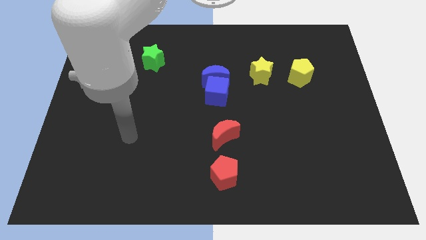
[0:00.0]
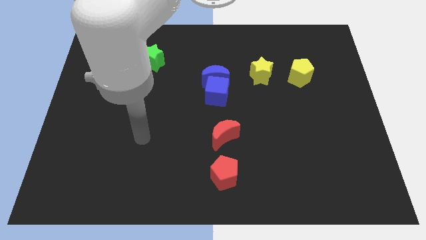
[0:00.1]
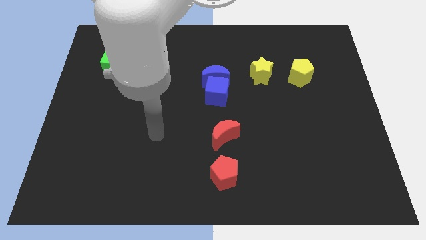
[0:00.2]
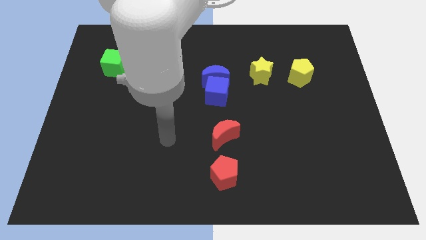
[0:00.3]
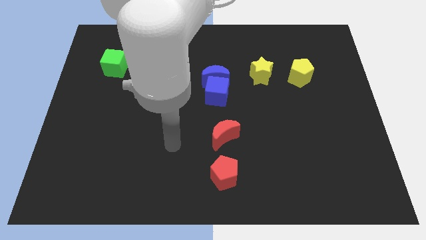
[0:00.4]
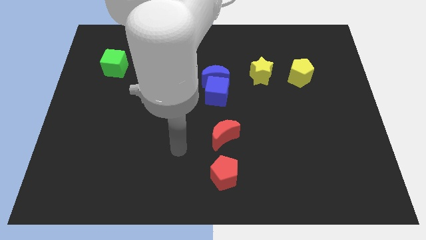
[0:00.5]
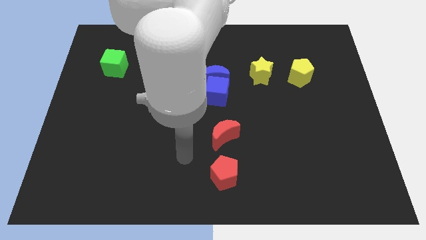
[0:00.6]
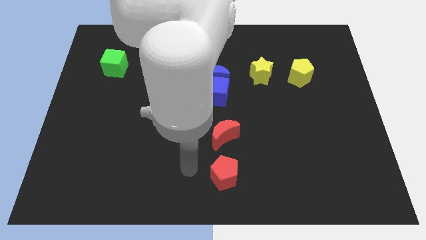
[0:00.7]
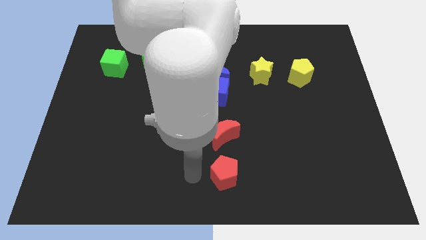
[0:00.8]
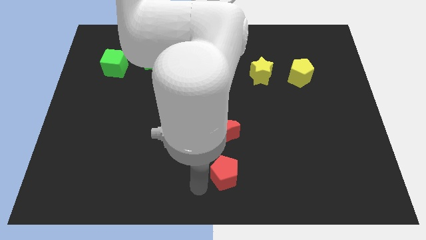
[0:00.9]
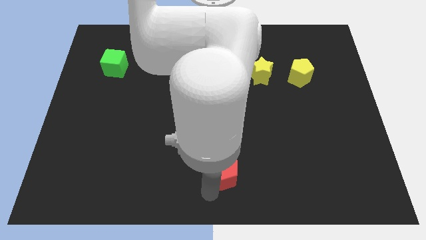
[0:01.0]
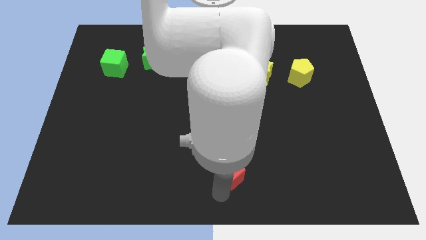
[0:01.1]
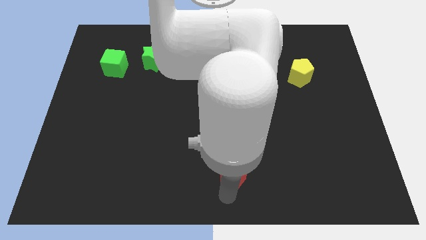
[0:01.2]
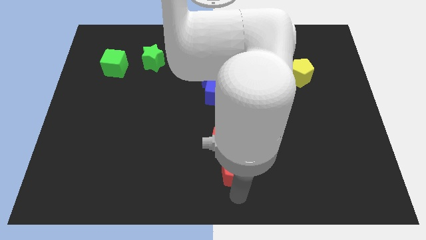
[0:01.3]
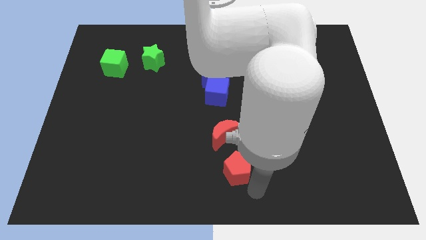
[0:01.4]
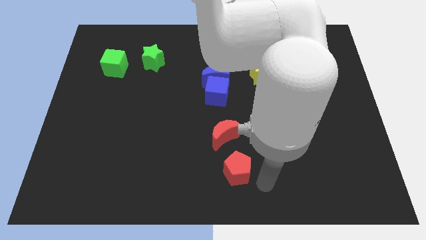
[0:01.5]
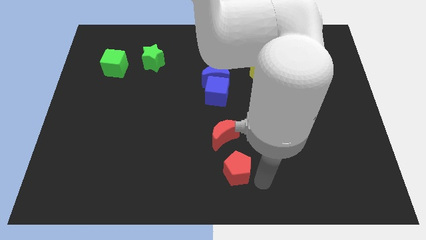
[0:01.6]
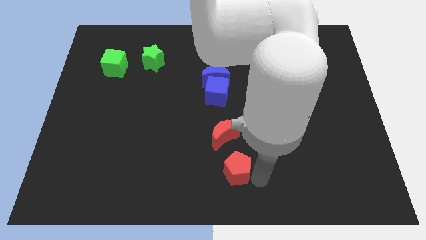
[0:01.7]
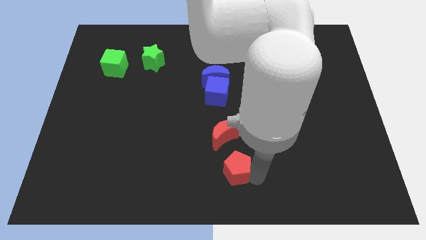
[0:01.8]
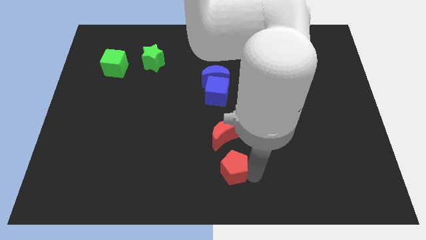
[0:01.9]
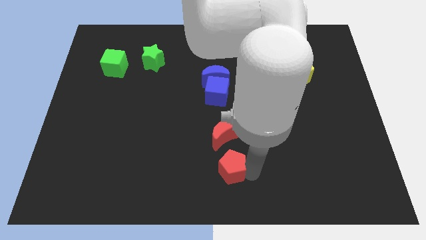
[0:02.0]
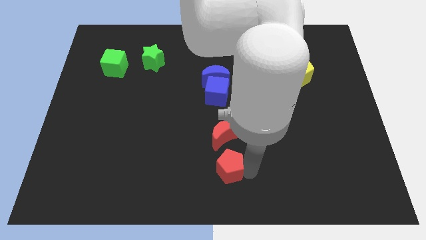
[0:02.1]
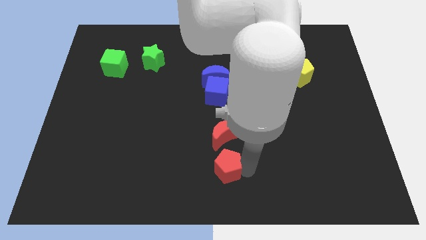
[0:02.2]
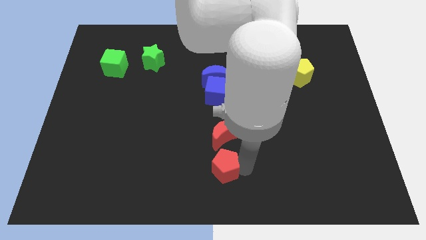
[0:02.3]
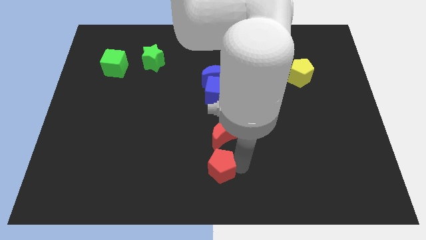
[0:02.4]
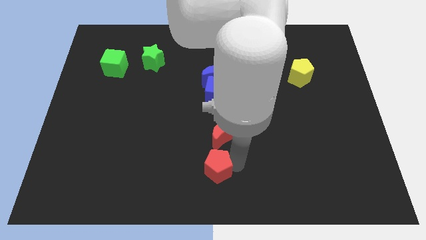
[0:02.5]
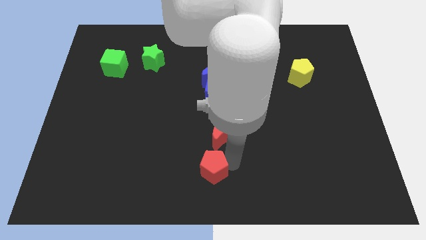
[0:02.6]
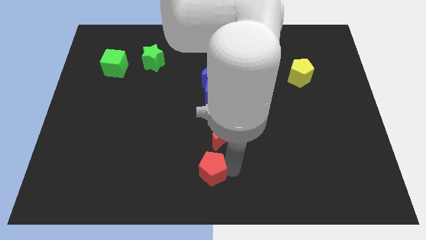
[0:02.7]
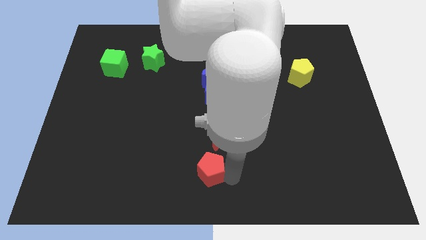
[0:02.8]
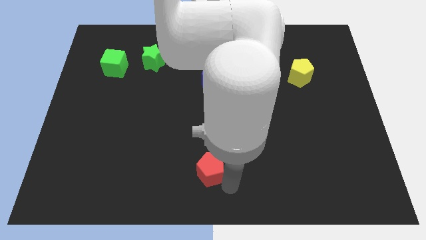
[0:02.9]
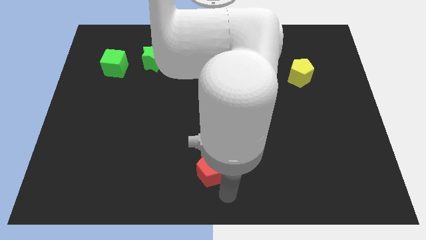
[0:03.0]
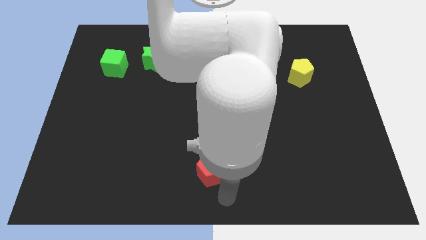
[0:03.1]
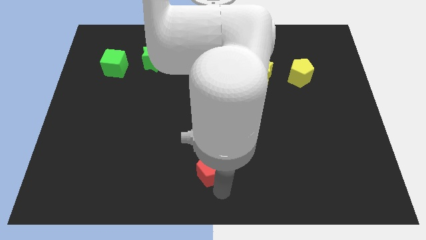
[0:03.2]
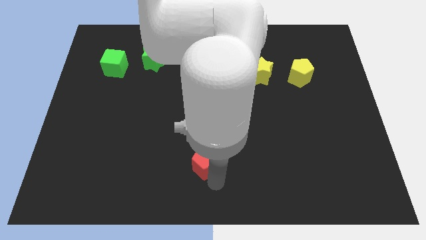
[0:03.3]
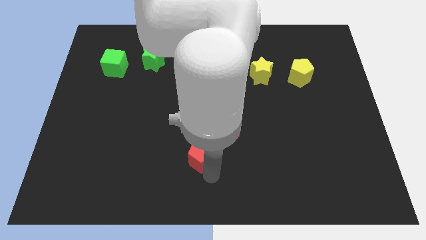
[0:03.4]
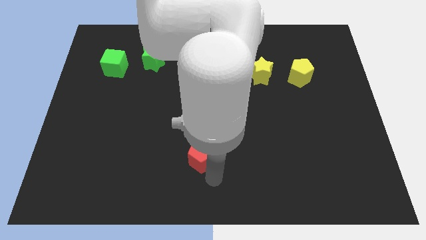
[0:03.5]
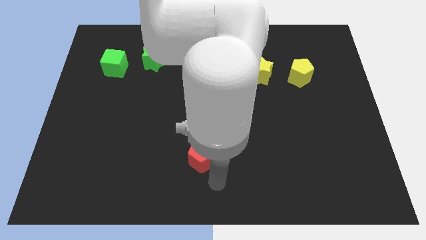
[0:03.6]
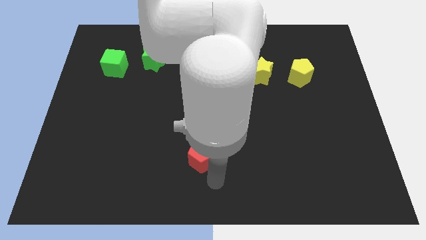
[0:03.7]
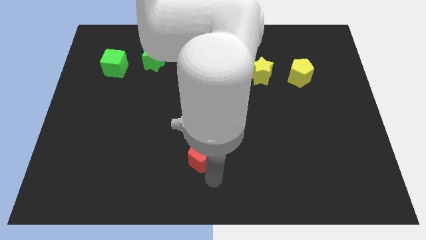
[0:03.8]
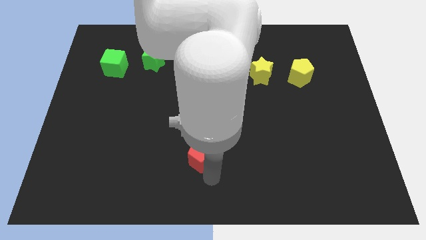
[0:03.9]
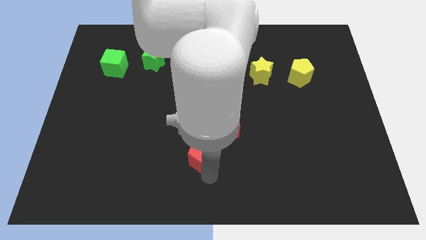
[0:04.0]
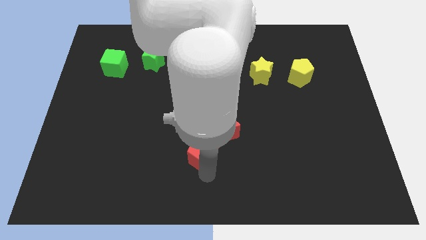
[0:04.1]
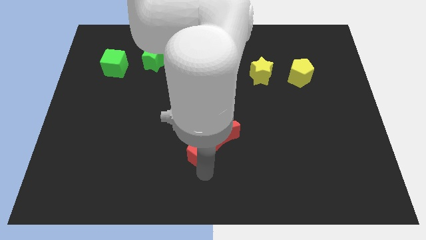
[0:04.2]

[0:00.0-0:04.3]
push the red pentagon a little upwards and left diagonally

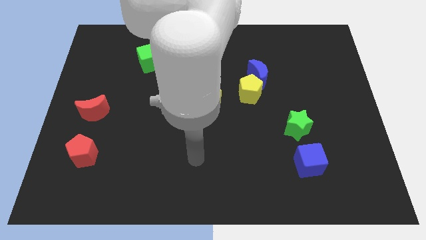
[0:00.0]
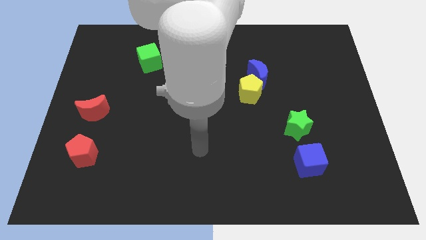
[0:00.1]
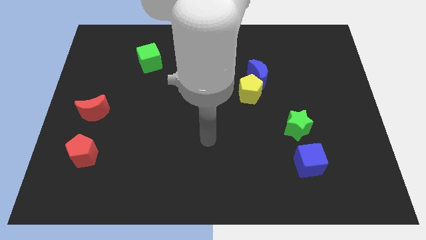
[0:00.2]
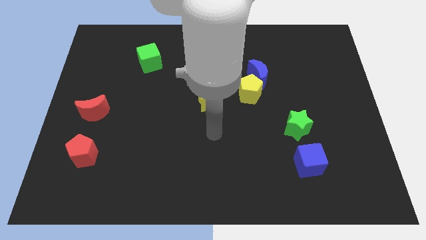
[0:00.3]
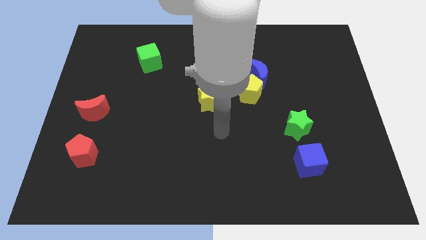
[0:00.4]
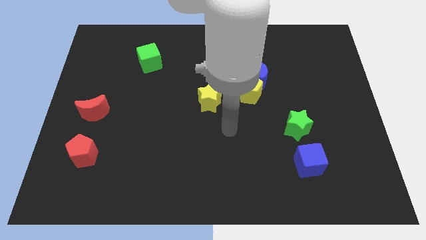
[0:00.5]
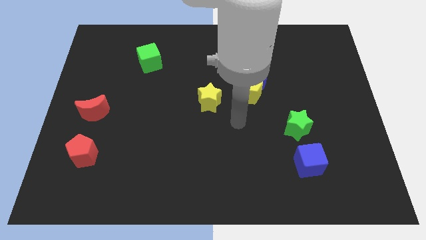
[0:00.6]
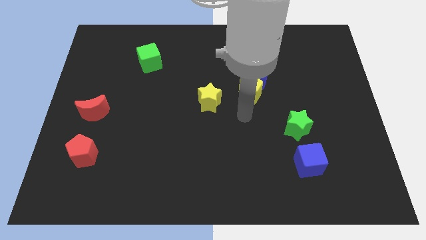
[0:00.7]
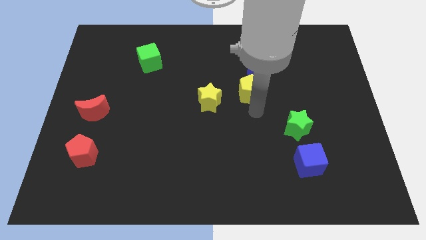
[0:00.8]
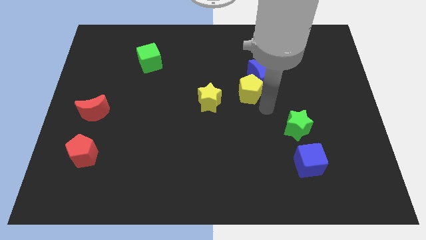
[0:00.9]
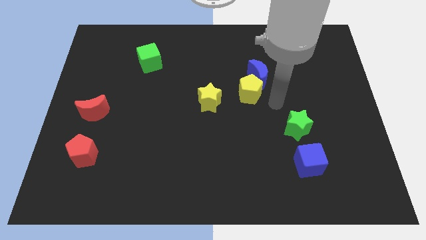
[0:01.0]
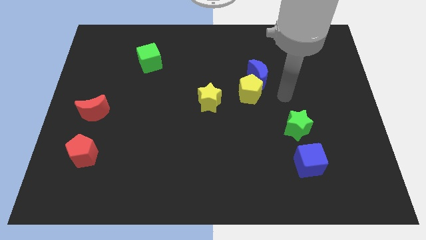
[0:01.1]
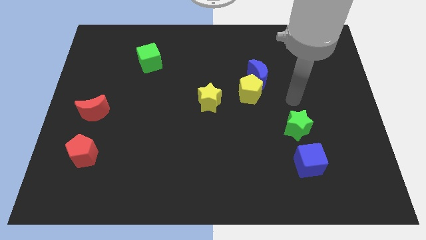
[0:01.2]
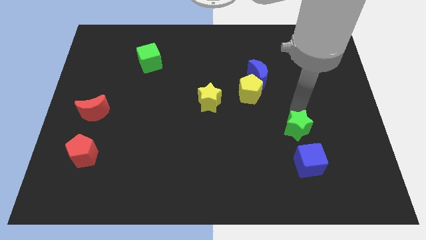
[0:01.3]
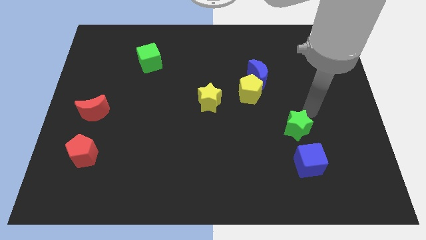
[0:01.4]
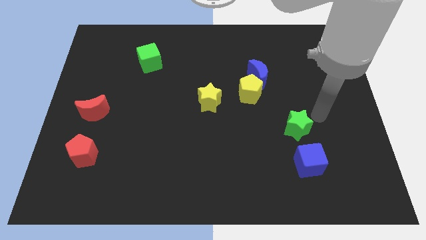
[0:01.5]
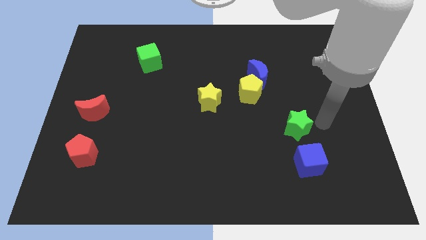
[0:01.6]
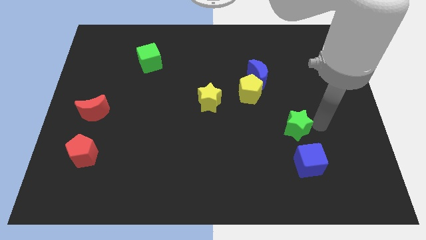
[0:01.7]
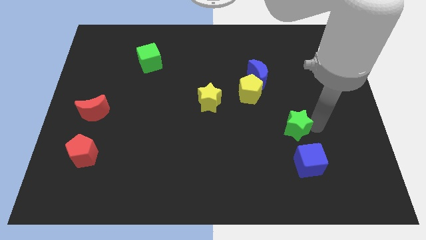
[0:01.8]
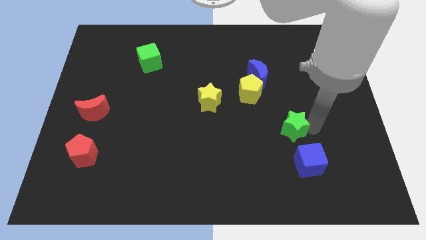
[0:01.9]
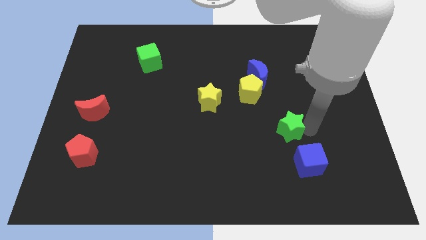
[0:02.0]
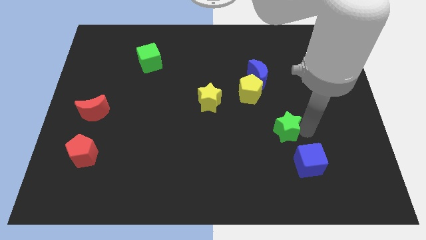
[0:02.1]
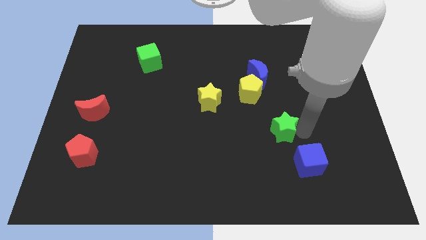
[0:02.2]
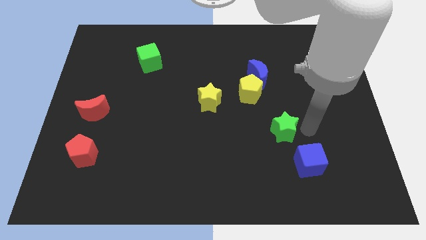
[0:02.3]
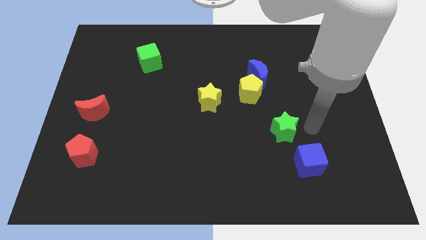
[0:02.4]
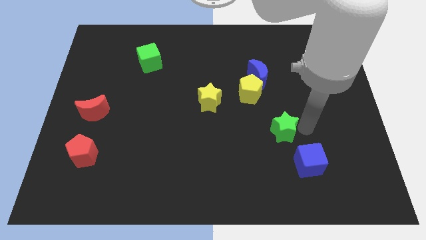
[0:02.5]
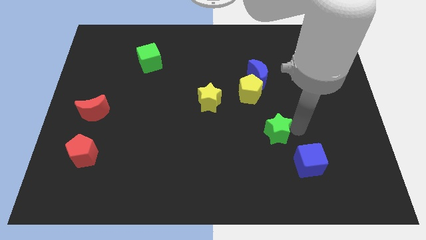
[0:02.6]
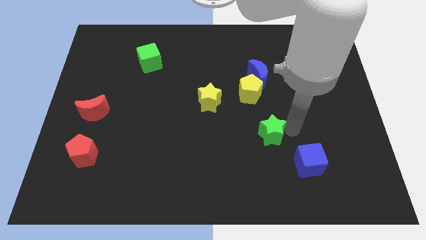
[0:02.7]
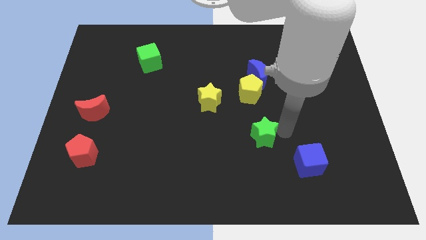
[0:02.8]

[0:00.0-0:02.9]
push the green star left a bit

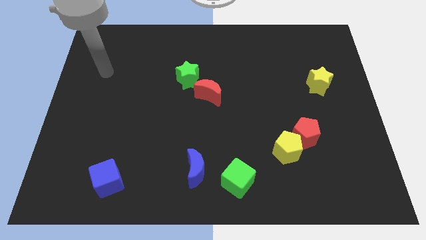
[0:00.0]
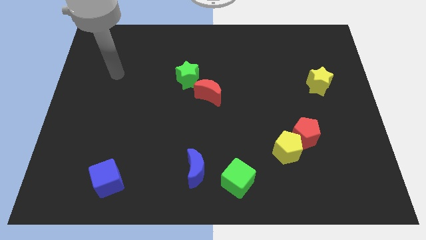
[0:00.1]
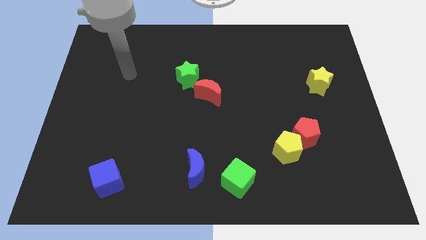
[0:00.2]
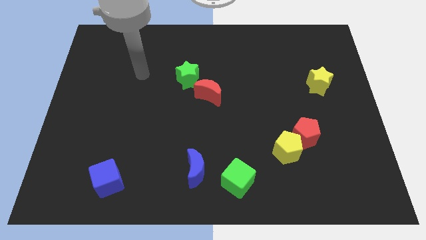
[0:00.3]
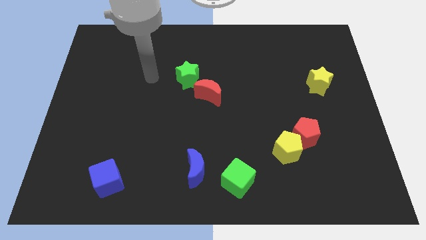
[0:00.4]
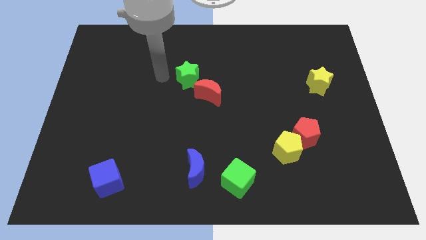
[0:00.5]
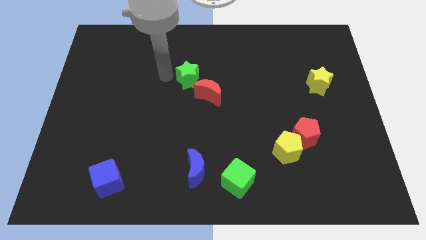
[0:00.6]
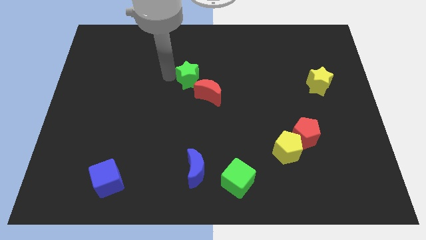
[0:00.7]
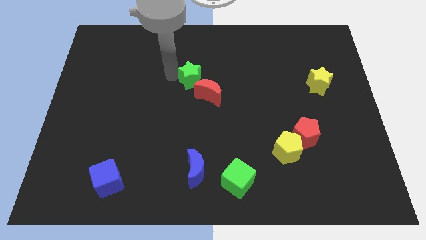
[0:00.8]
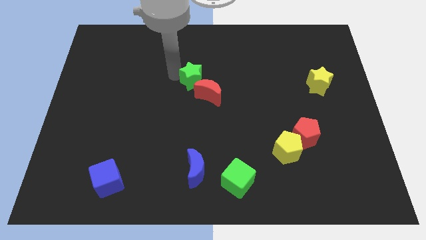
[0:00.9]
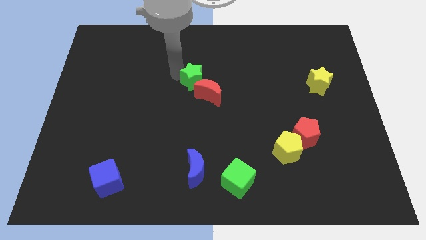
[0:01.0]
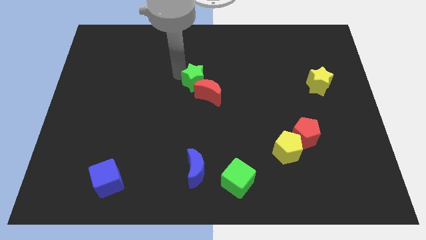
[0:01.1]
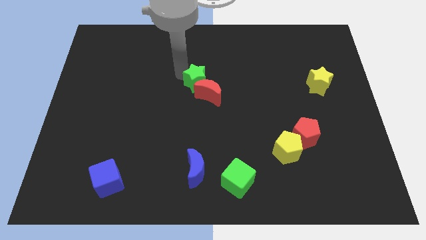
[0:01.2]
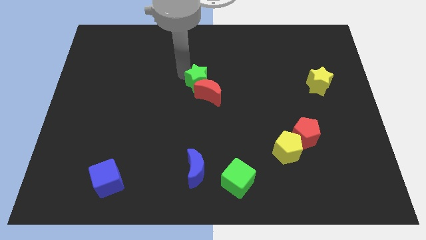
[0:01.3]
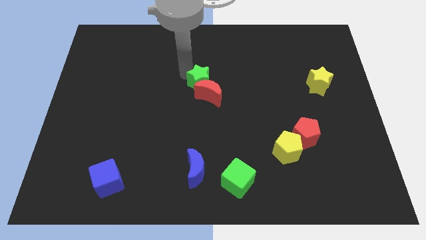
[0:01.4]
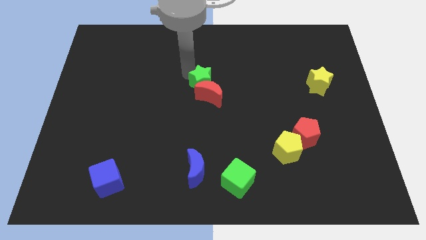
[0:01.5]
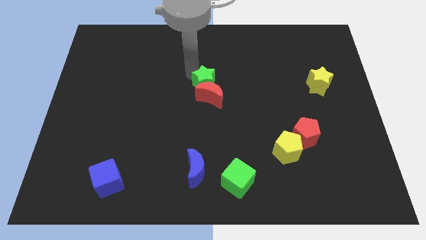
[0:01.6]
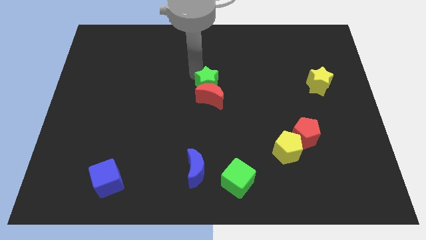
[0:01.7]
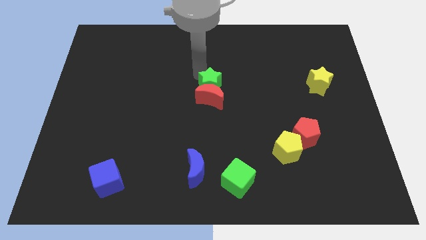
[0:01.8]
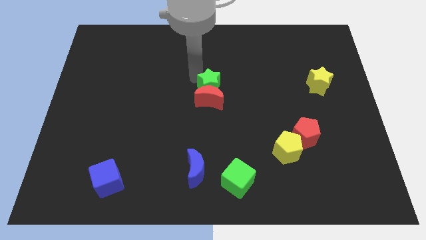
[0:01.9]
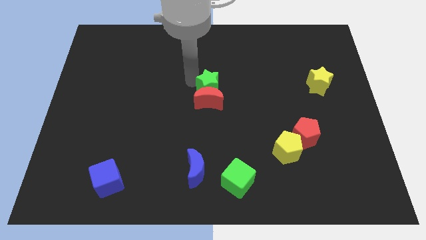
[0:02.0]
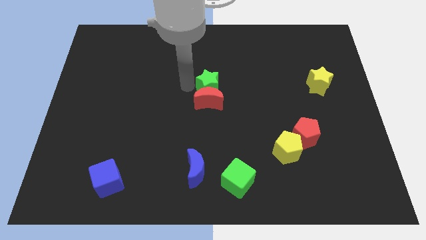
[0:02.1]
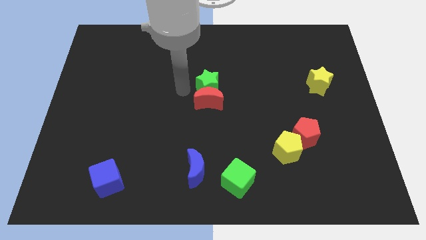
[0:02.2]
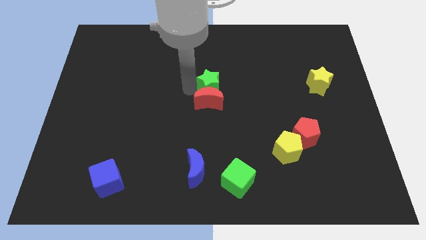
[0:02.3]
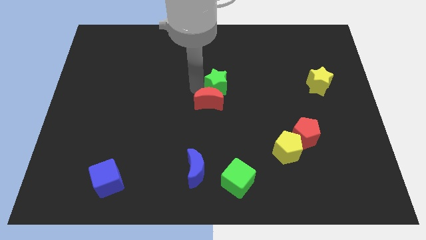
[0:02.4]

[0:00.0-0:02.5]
slightly slide the green star to the right
